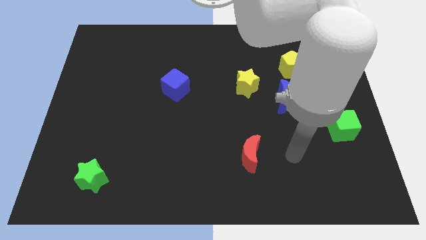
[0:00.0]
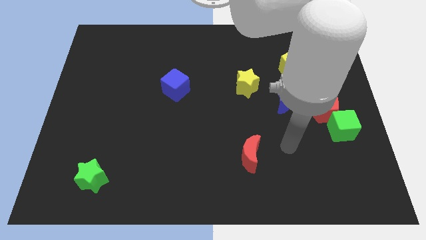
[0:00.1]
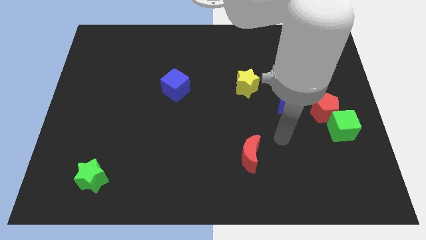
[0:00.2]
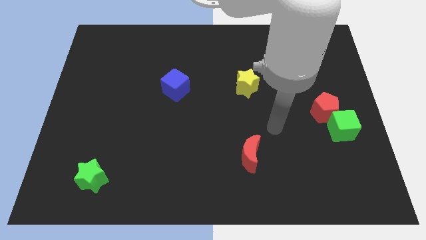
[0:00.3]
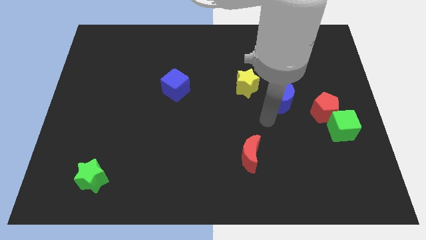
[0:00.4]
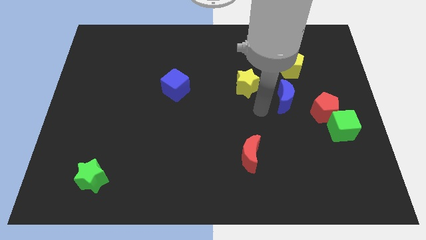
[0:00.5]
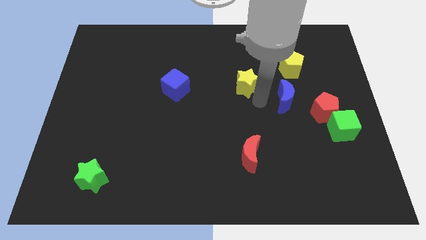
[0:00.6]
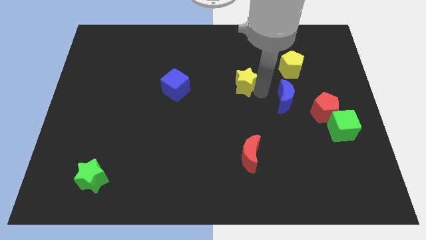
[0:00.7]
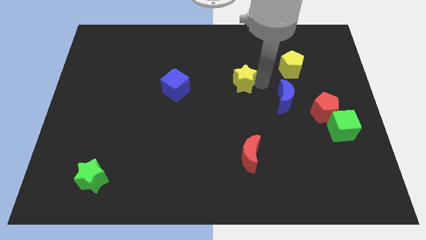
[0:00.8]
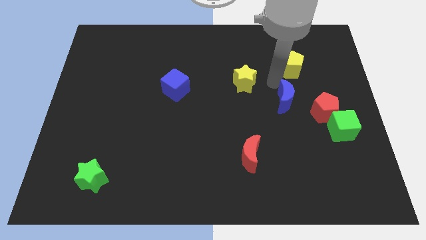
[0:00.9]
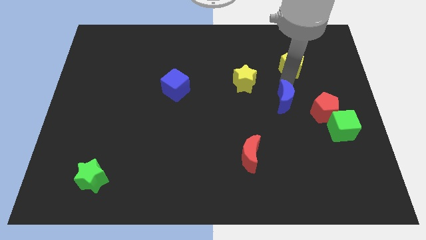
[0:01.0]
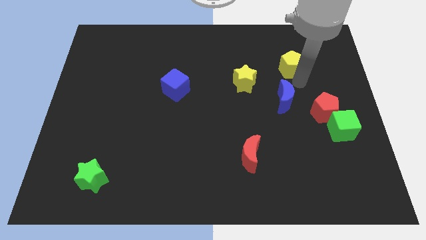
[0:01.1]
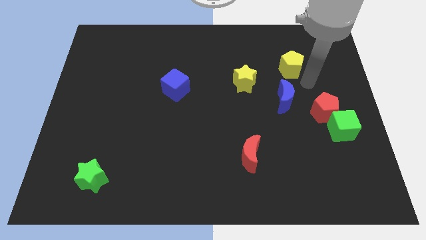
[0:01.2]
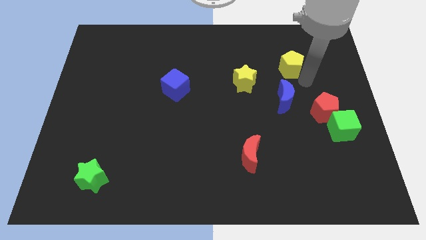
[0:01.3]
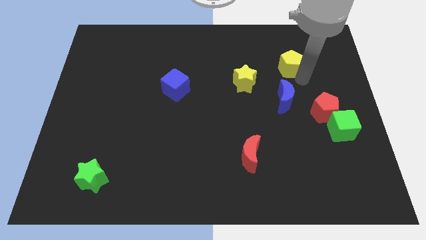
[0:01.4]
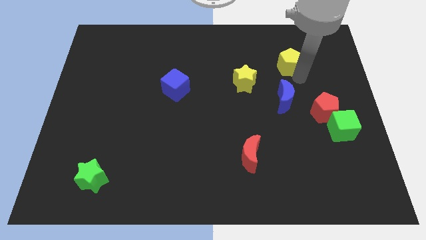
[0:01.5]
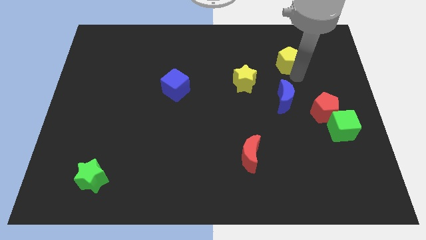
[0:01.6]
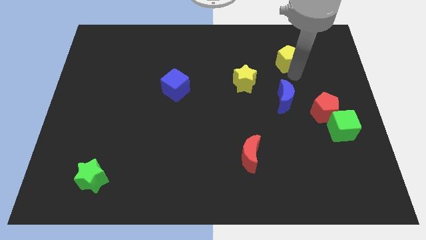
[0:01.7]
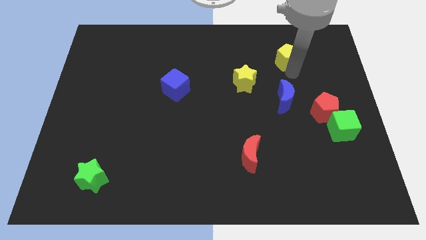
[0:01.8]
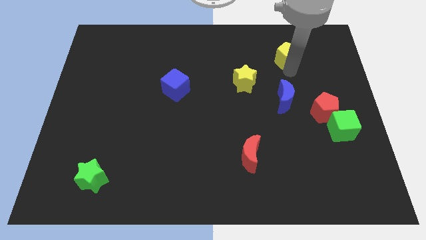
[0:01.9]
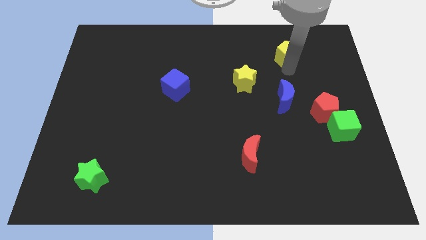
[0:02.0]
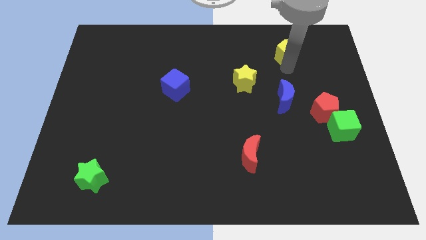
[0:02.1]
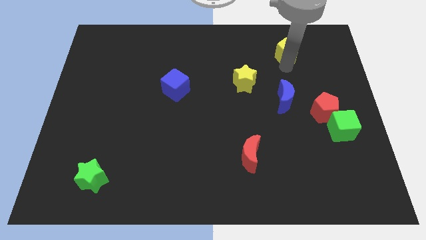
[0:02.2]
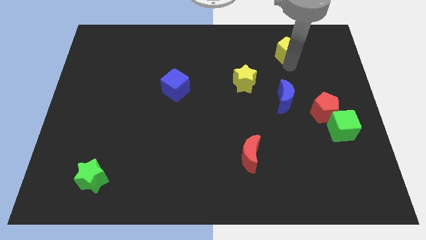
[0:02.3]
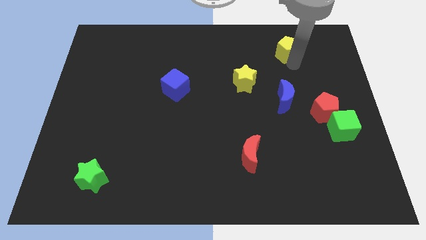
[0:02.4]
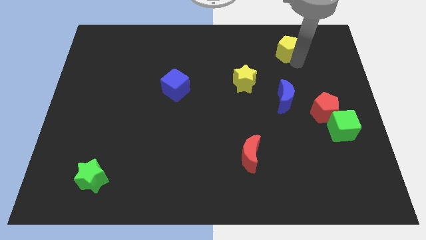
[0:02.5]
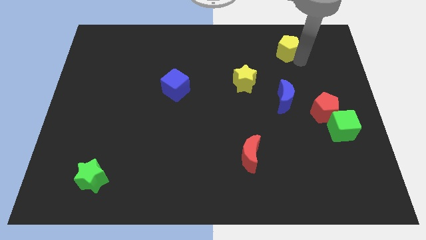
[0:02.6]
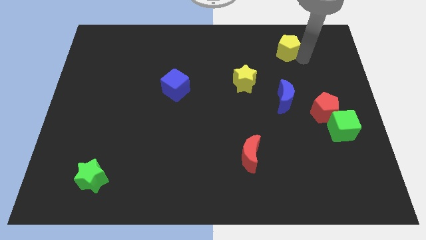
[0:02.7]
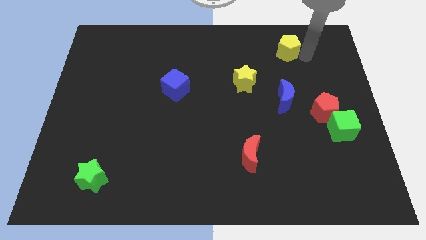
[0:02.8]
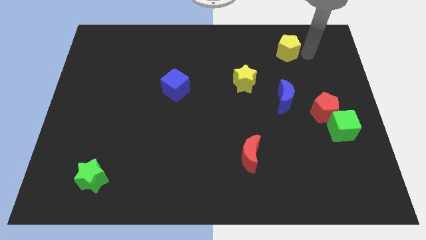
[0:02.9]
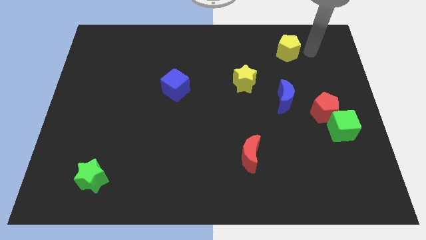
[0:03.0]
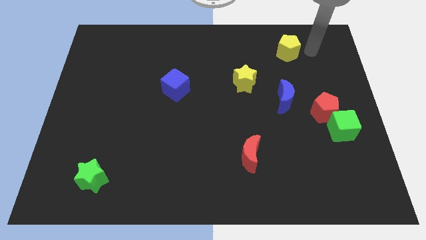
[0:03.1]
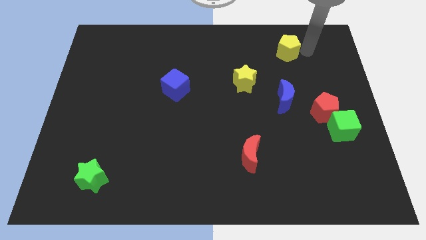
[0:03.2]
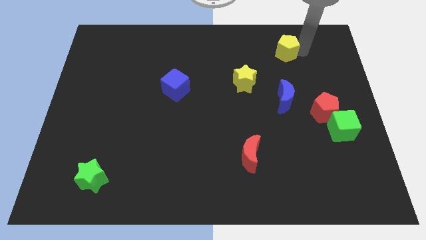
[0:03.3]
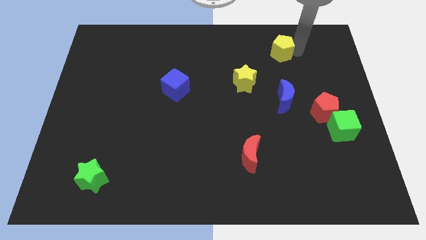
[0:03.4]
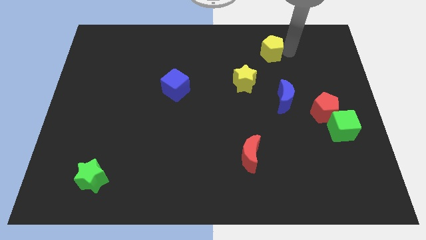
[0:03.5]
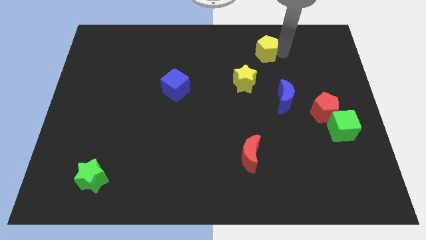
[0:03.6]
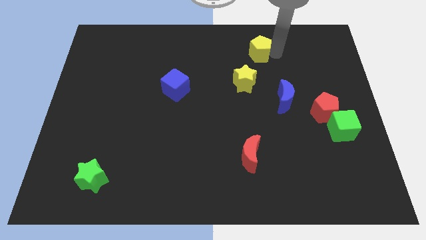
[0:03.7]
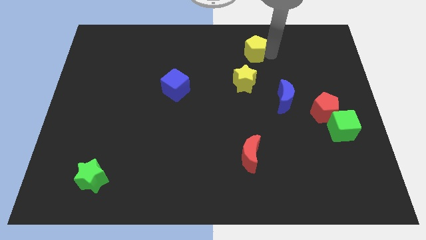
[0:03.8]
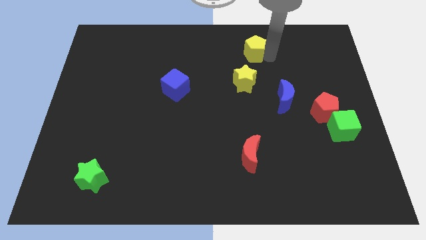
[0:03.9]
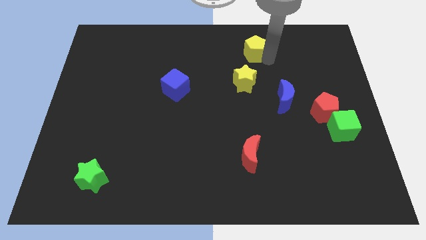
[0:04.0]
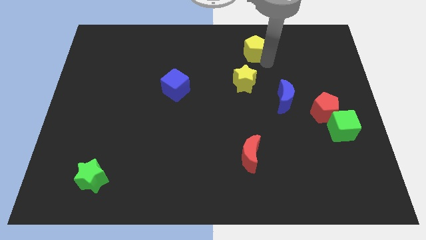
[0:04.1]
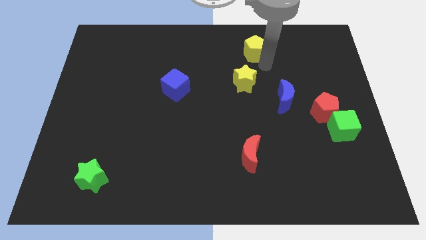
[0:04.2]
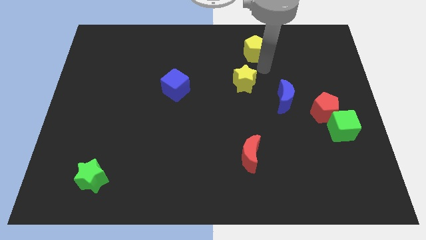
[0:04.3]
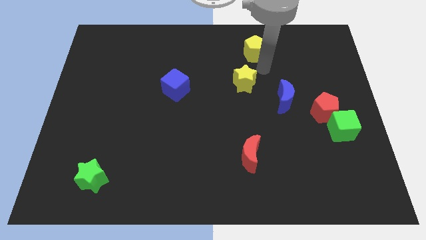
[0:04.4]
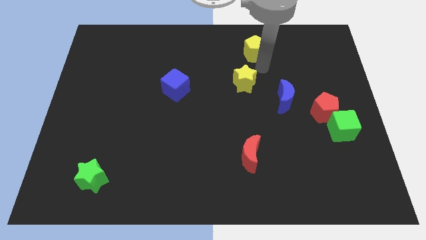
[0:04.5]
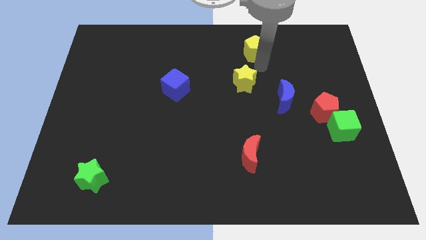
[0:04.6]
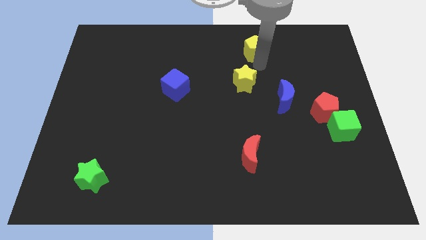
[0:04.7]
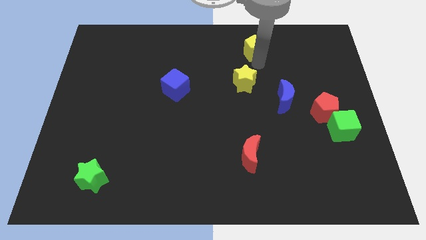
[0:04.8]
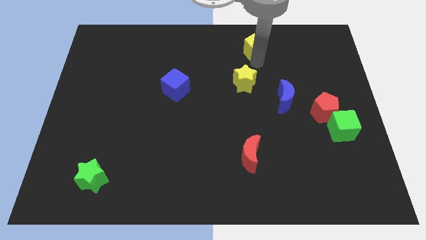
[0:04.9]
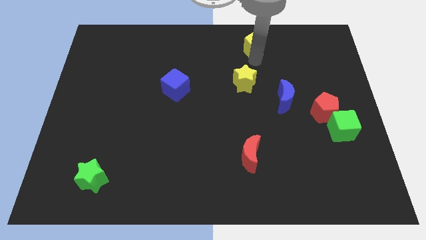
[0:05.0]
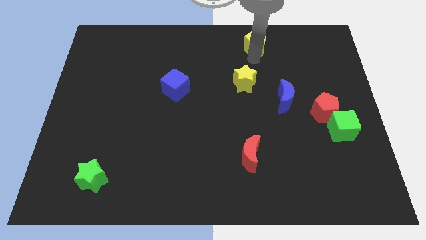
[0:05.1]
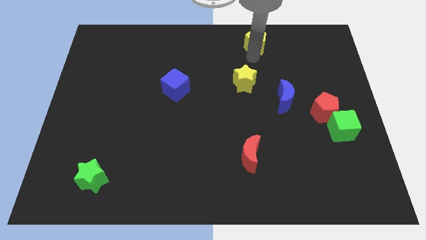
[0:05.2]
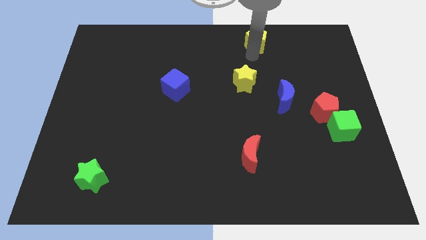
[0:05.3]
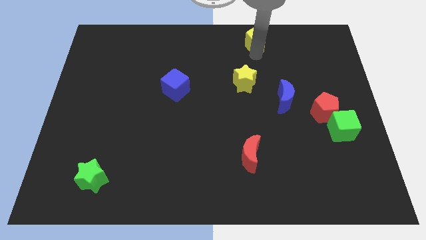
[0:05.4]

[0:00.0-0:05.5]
push the yellow pentagon to the top side

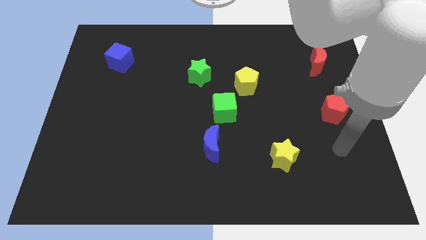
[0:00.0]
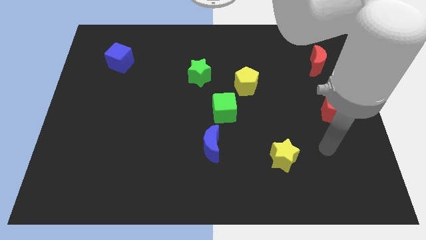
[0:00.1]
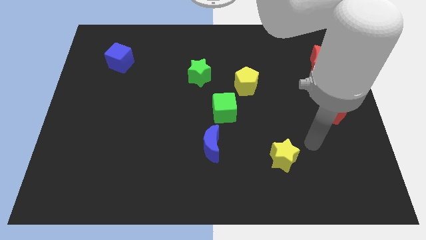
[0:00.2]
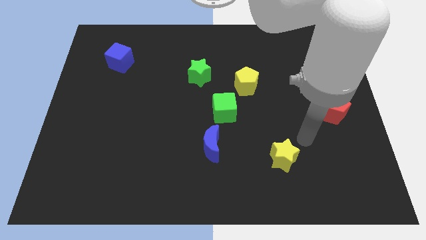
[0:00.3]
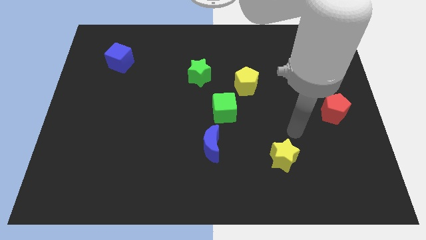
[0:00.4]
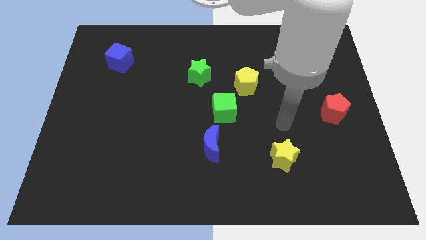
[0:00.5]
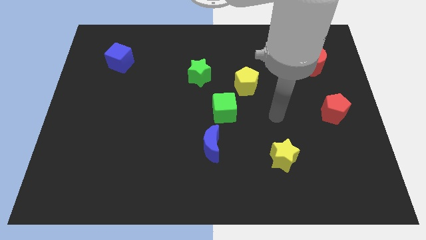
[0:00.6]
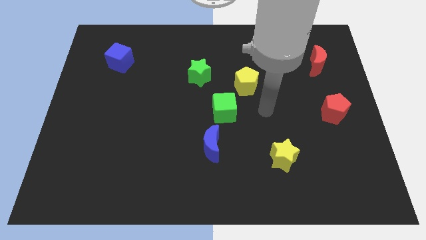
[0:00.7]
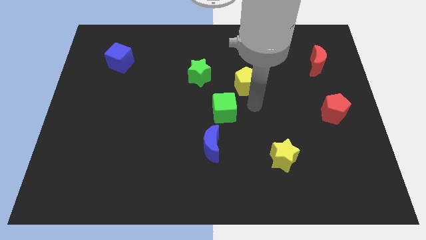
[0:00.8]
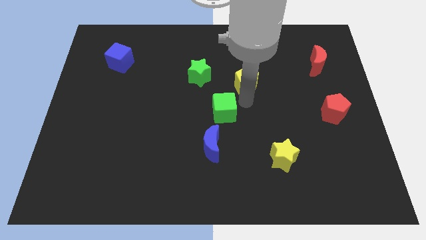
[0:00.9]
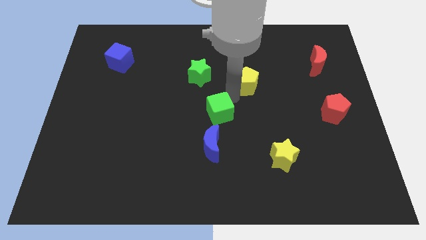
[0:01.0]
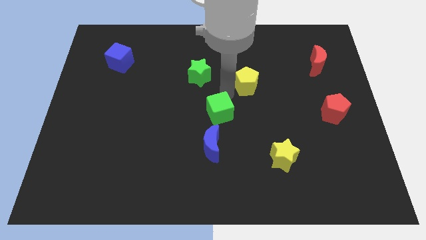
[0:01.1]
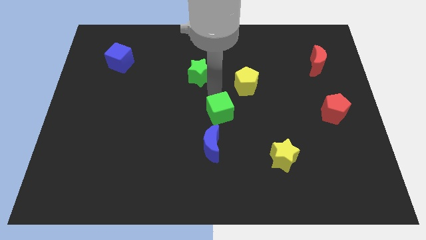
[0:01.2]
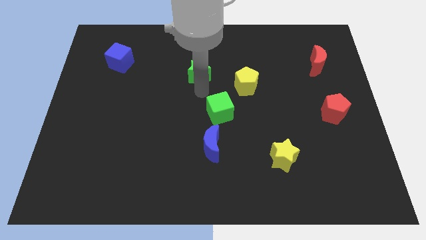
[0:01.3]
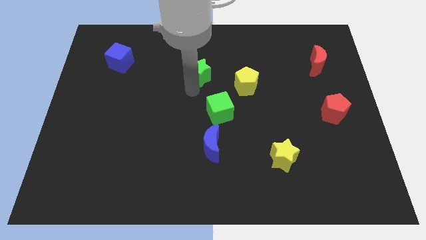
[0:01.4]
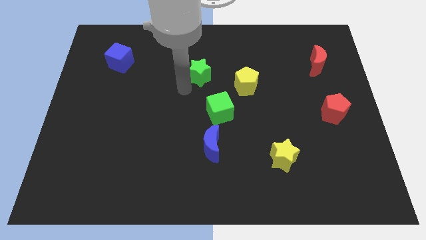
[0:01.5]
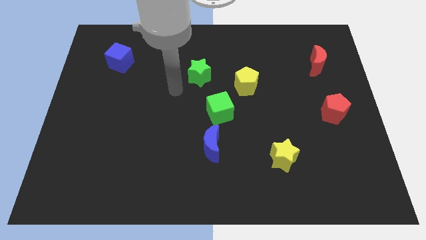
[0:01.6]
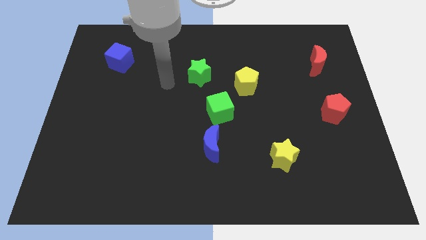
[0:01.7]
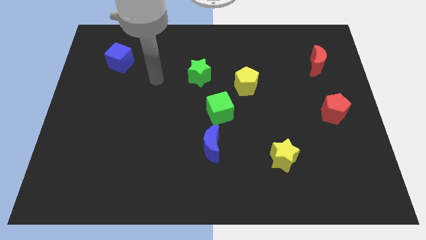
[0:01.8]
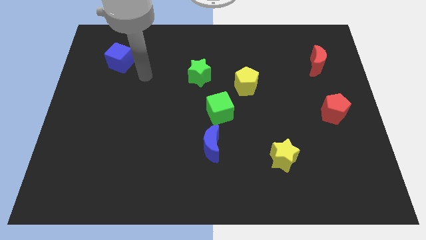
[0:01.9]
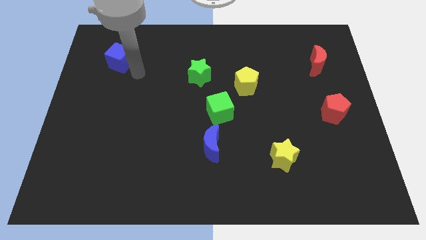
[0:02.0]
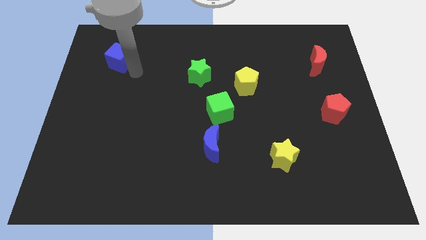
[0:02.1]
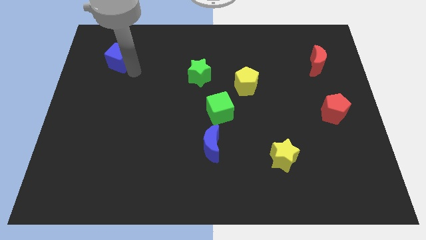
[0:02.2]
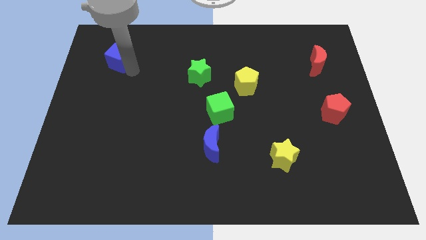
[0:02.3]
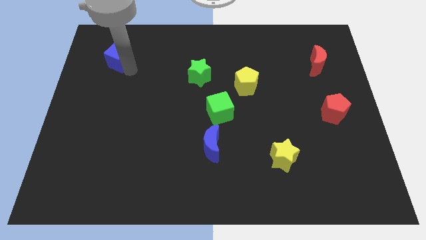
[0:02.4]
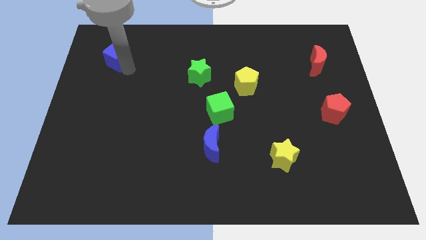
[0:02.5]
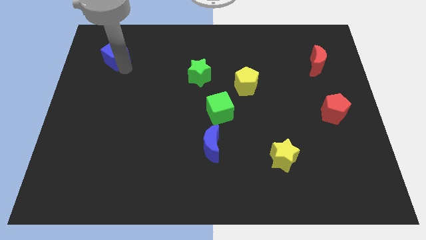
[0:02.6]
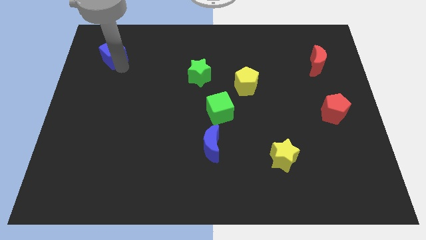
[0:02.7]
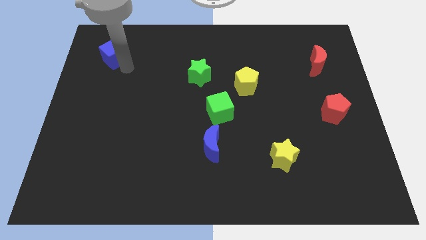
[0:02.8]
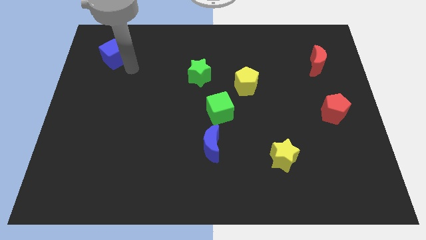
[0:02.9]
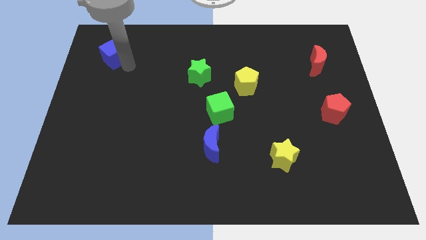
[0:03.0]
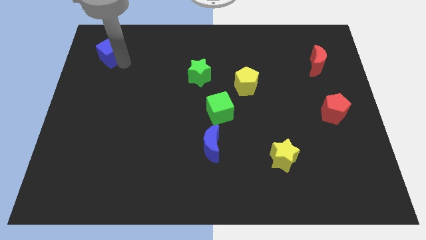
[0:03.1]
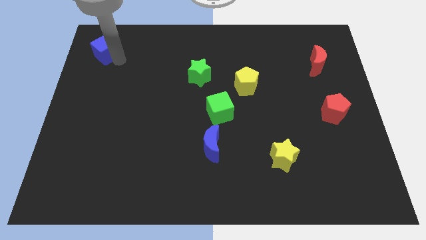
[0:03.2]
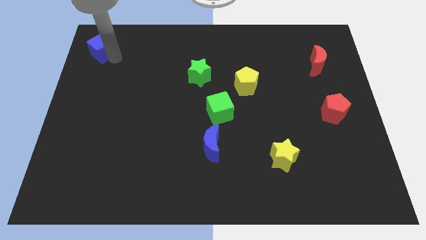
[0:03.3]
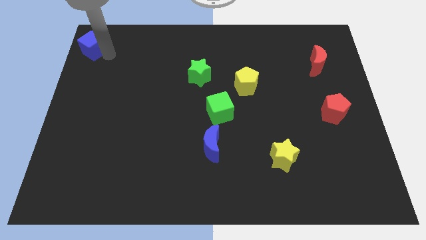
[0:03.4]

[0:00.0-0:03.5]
move the blue cube to the upper left corner
